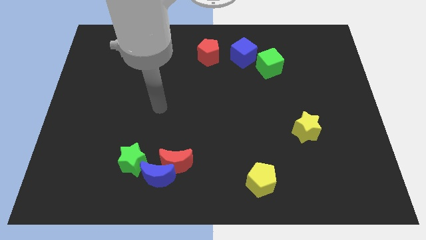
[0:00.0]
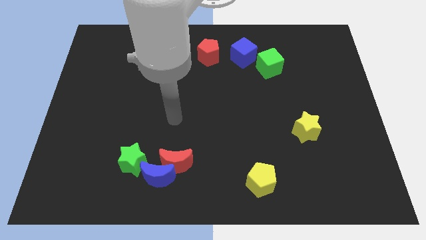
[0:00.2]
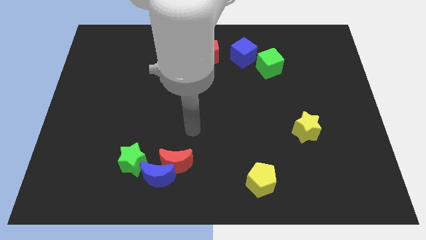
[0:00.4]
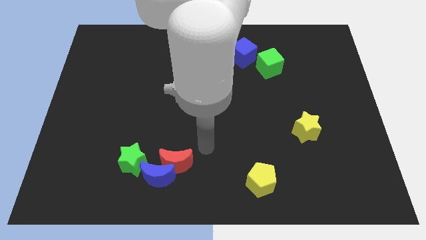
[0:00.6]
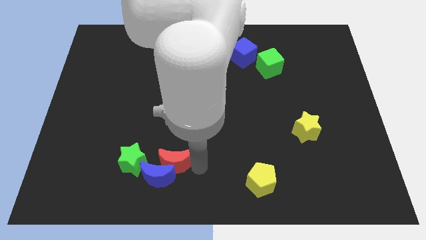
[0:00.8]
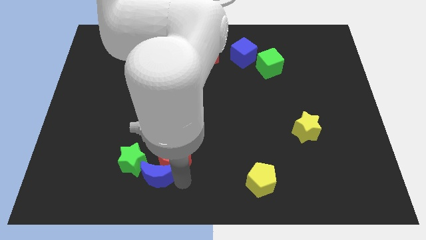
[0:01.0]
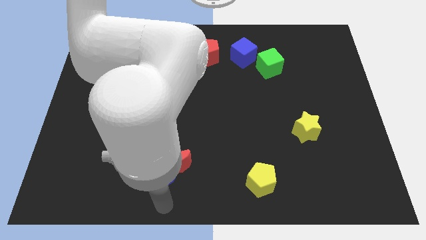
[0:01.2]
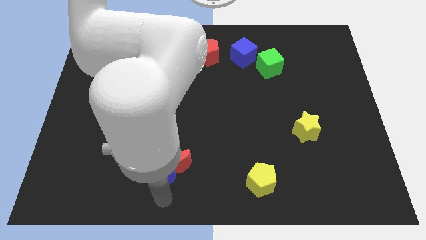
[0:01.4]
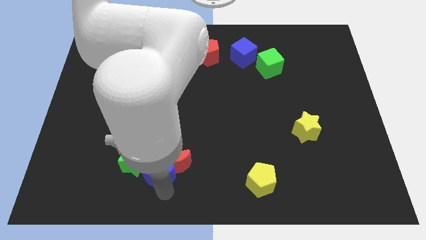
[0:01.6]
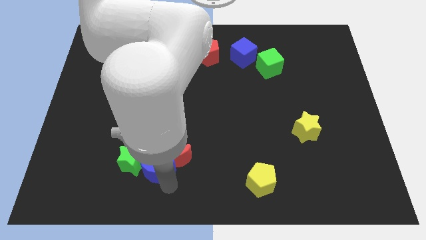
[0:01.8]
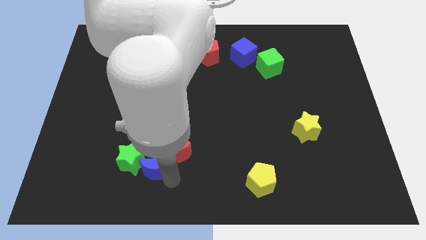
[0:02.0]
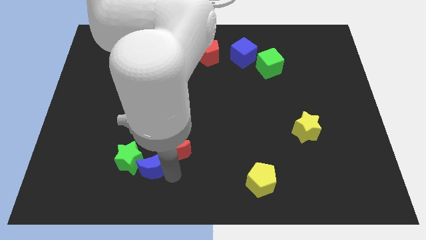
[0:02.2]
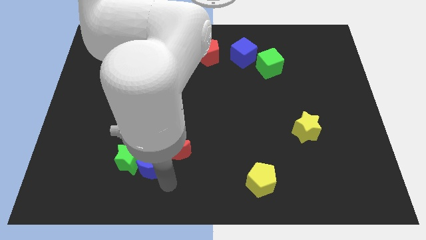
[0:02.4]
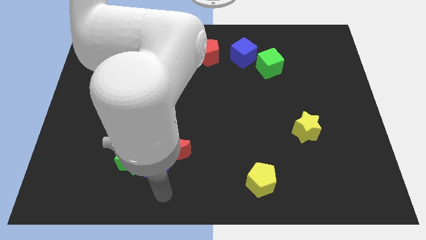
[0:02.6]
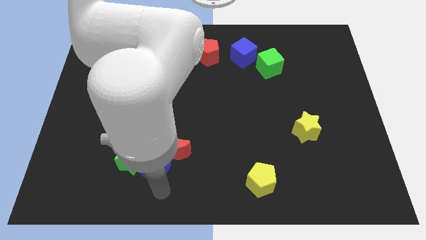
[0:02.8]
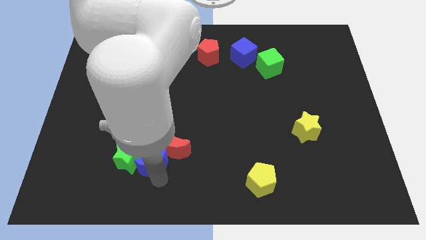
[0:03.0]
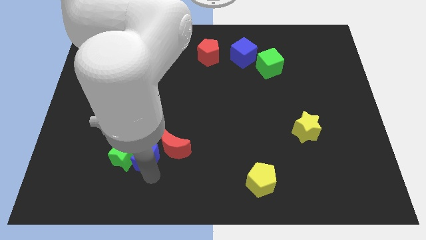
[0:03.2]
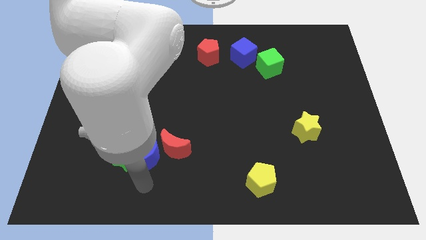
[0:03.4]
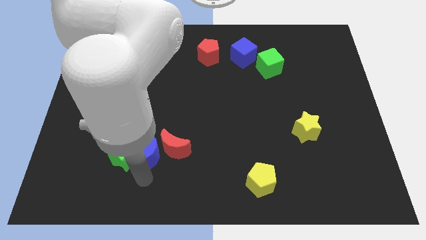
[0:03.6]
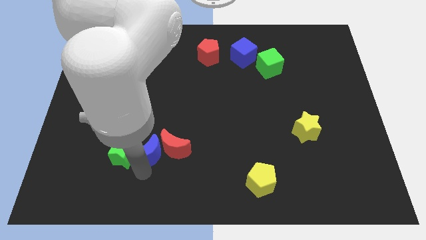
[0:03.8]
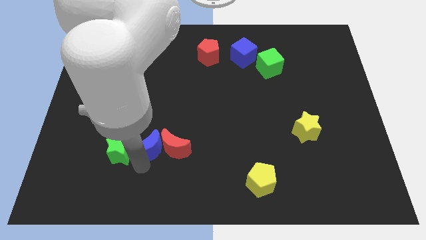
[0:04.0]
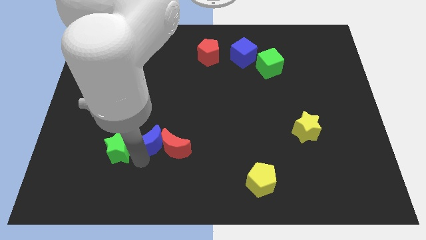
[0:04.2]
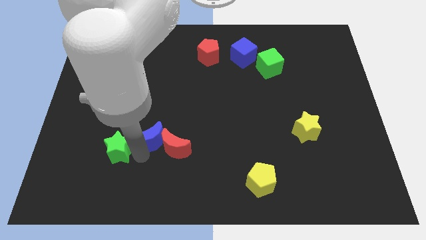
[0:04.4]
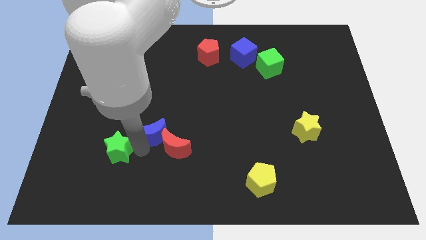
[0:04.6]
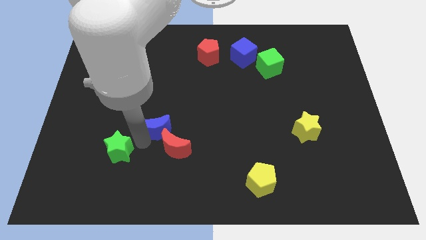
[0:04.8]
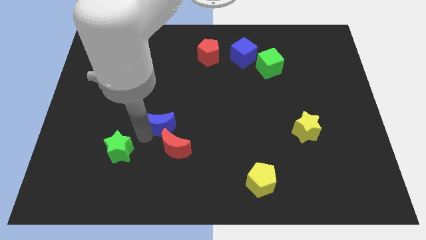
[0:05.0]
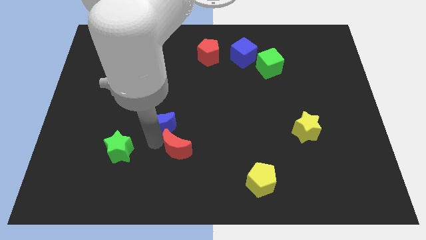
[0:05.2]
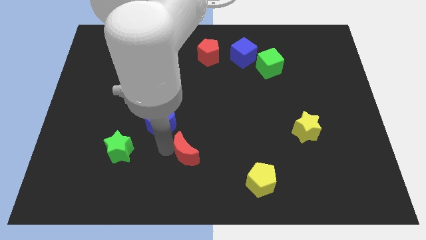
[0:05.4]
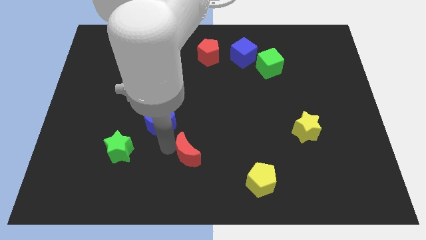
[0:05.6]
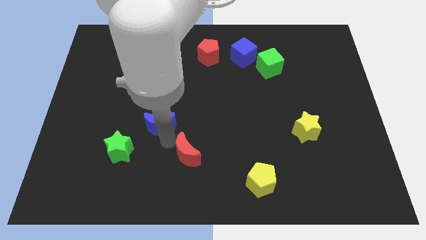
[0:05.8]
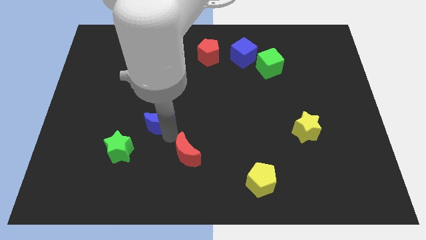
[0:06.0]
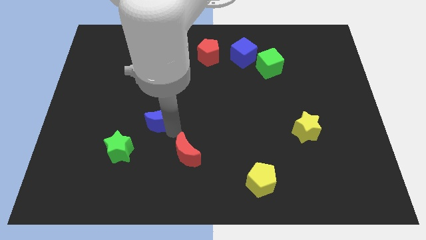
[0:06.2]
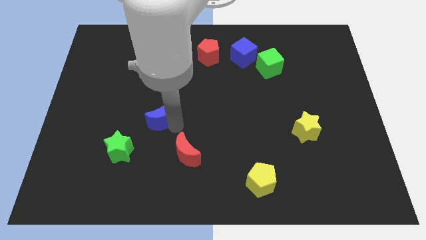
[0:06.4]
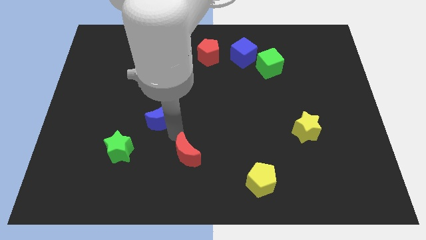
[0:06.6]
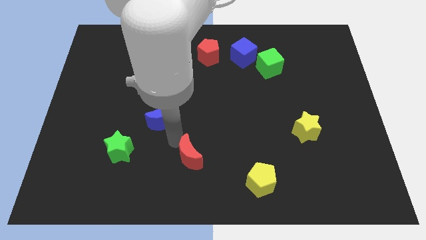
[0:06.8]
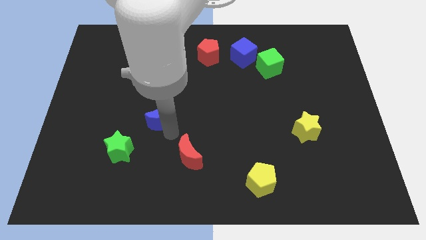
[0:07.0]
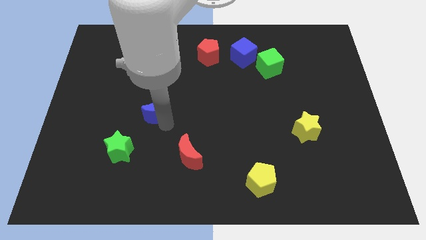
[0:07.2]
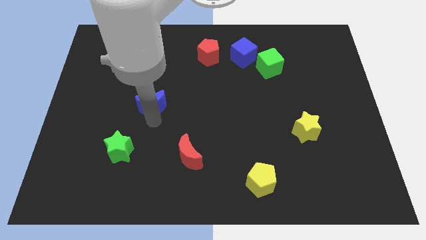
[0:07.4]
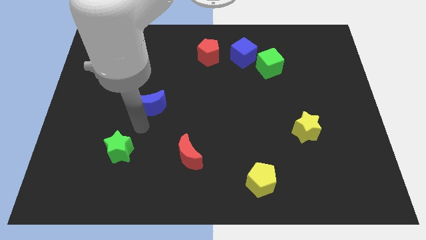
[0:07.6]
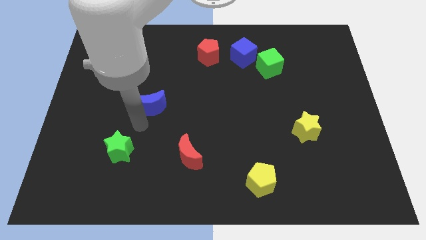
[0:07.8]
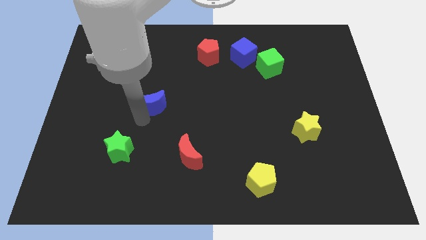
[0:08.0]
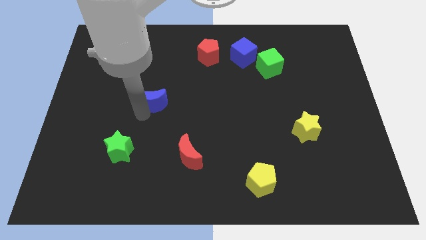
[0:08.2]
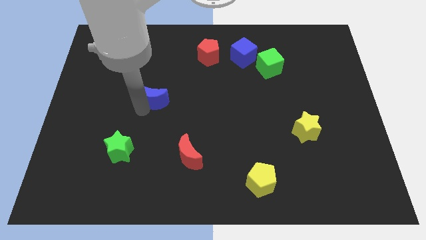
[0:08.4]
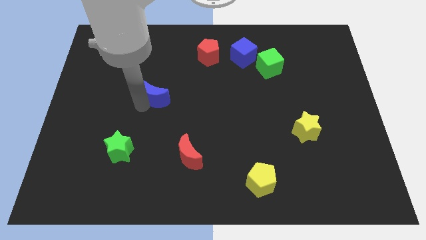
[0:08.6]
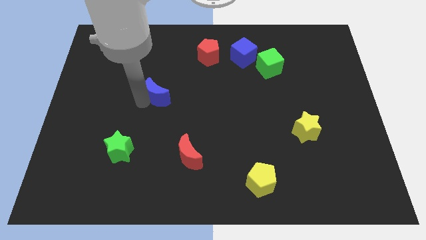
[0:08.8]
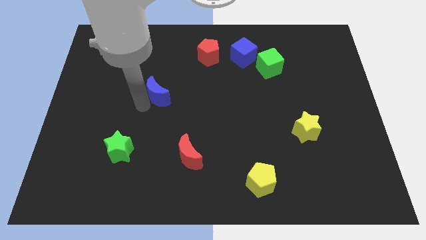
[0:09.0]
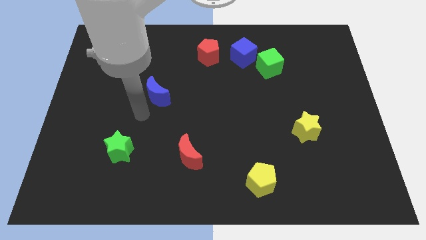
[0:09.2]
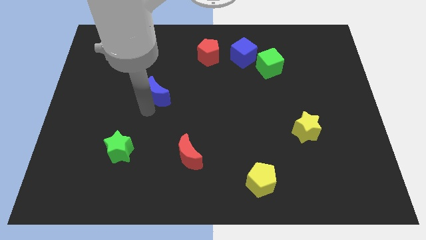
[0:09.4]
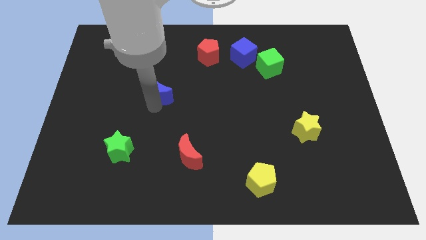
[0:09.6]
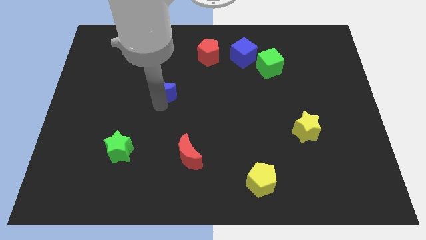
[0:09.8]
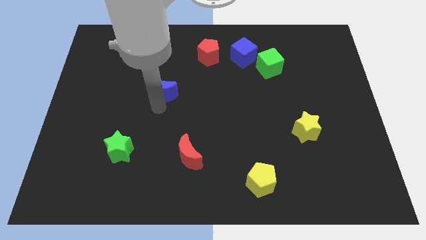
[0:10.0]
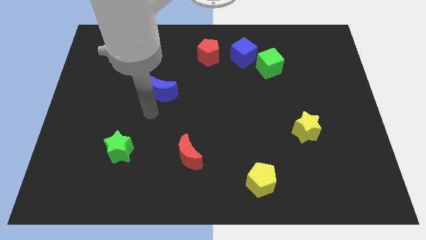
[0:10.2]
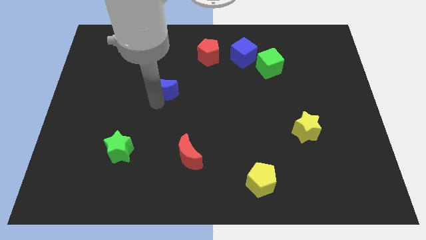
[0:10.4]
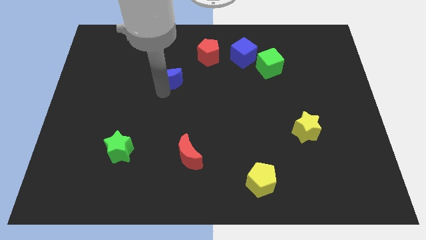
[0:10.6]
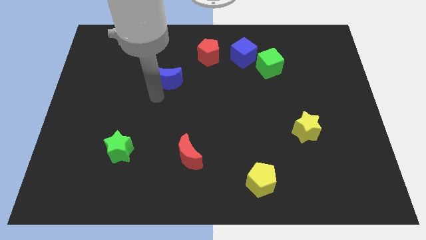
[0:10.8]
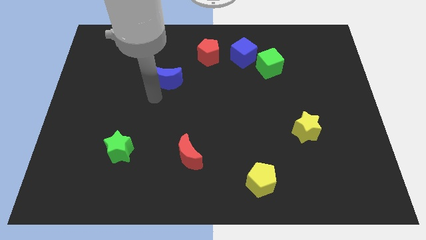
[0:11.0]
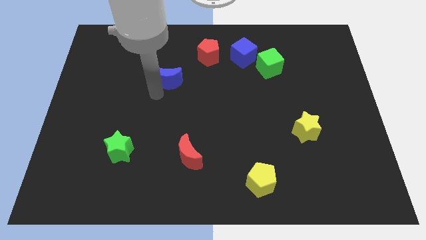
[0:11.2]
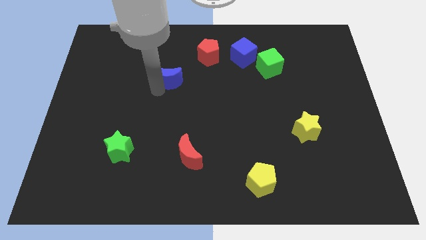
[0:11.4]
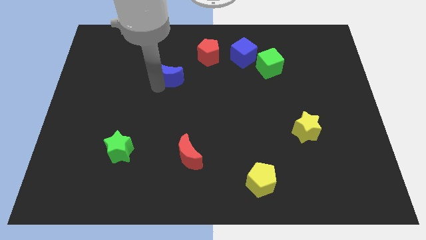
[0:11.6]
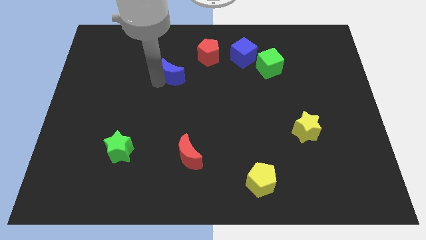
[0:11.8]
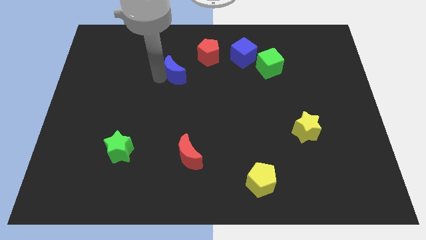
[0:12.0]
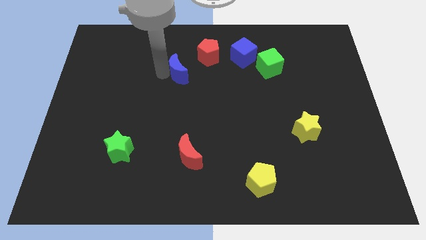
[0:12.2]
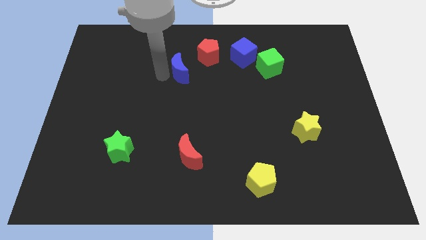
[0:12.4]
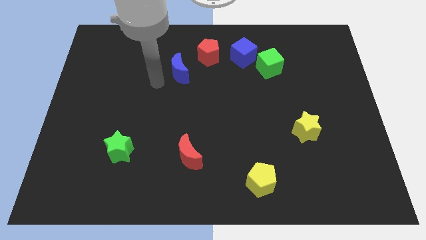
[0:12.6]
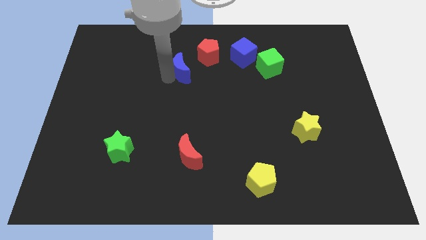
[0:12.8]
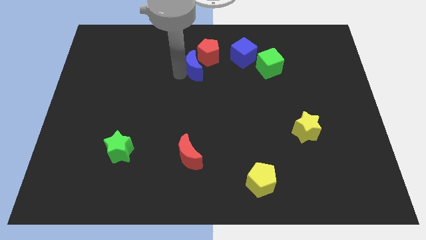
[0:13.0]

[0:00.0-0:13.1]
push the blue moon next to the red pentagon

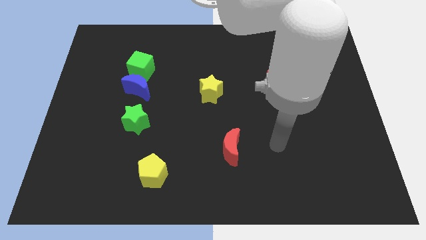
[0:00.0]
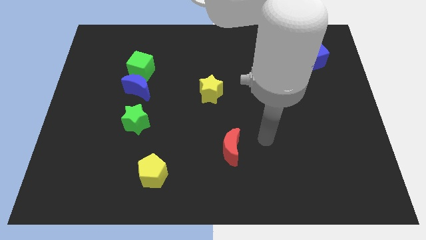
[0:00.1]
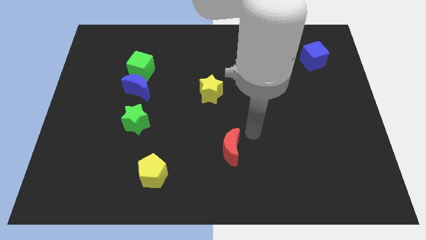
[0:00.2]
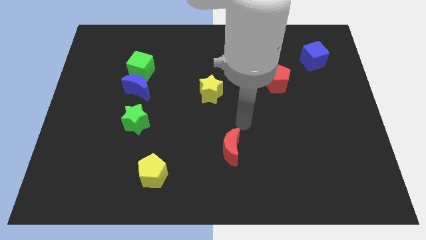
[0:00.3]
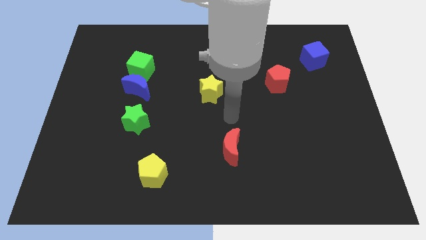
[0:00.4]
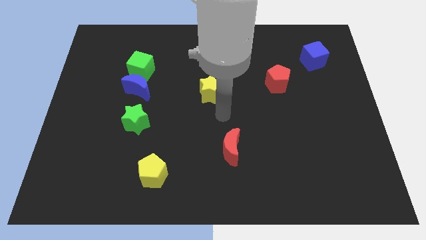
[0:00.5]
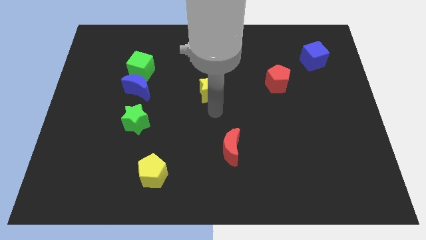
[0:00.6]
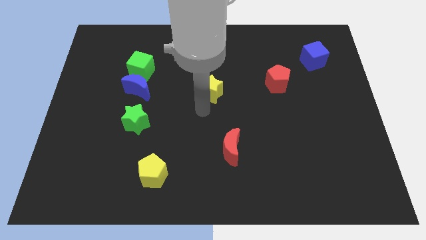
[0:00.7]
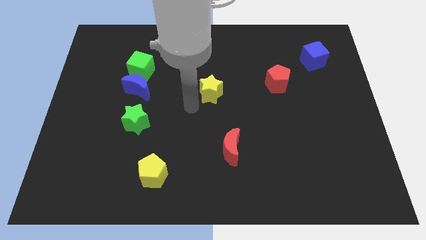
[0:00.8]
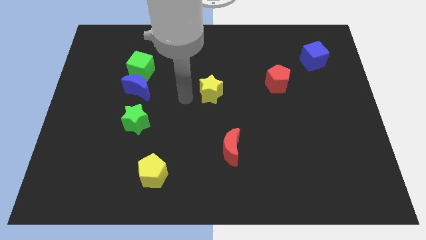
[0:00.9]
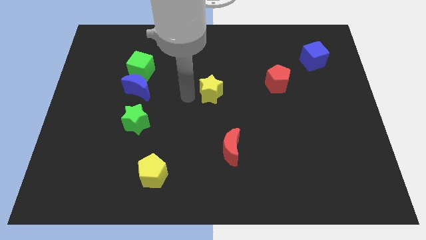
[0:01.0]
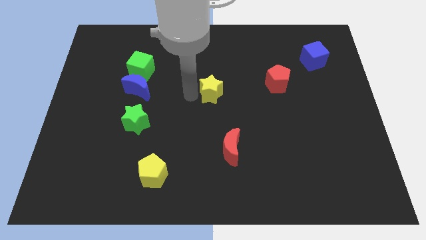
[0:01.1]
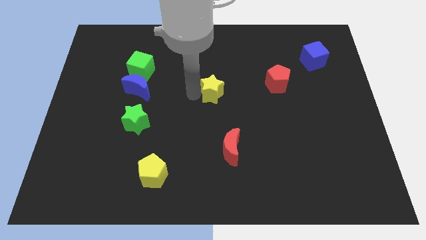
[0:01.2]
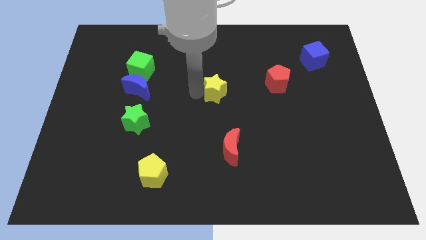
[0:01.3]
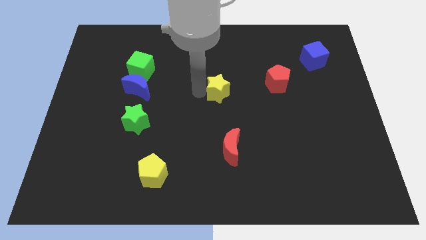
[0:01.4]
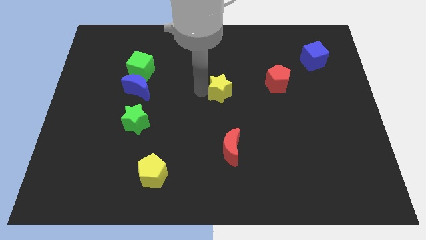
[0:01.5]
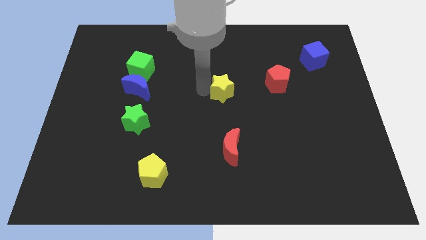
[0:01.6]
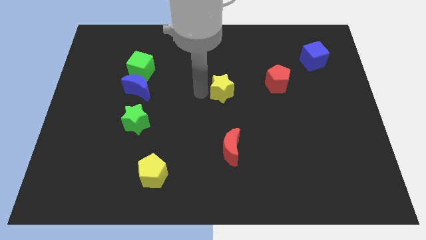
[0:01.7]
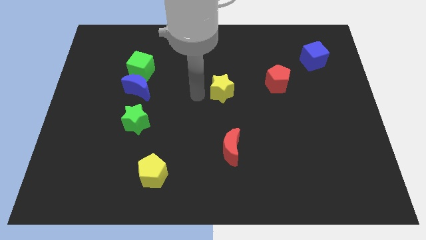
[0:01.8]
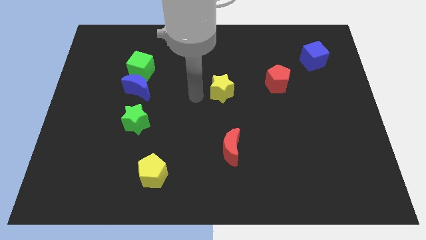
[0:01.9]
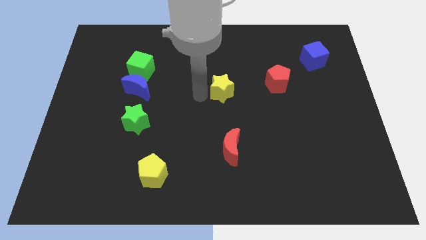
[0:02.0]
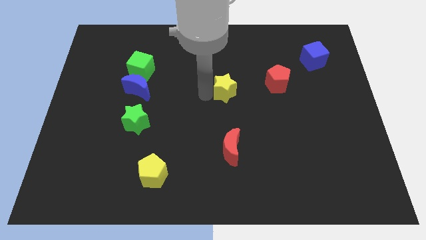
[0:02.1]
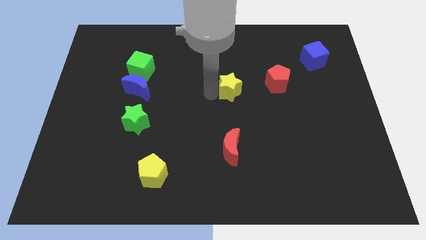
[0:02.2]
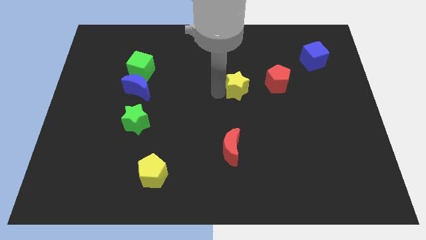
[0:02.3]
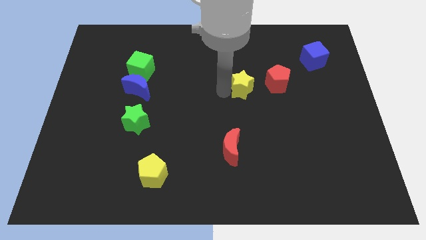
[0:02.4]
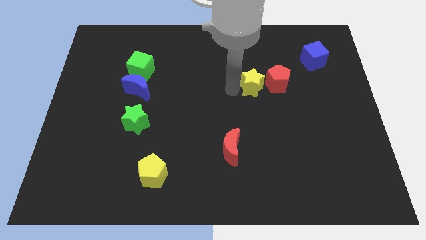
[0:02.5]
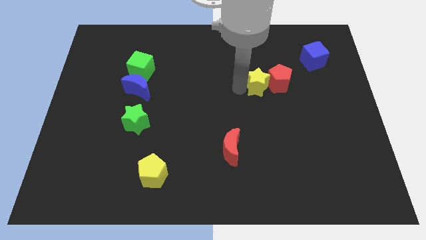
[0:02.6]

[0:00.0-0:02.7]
slide the yellow star close to the red pentagon
